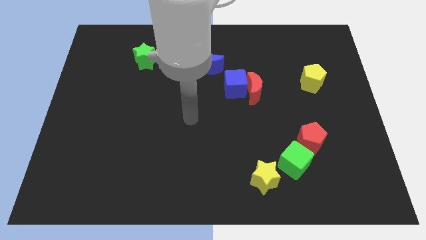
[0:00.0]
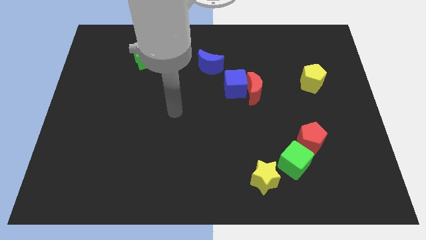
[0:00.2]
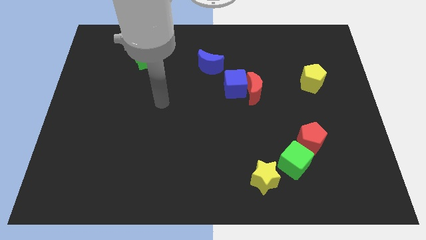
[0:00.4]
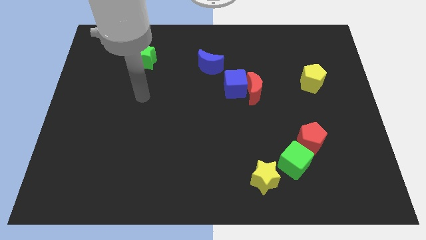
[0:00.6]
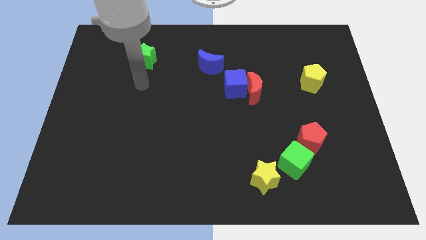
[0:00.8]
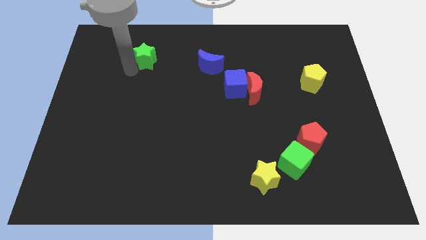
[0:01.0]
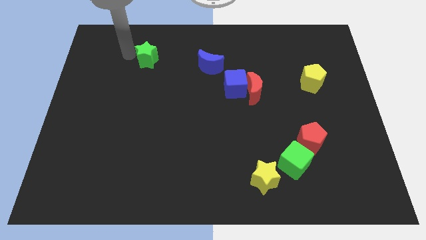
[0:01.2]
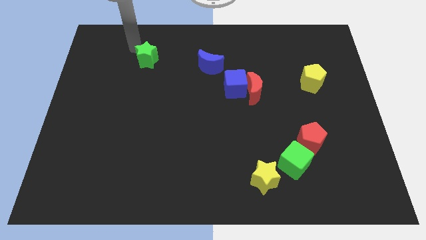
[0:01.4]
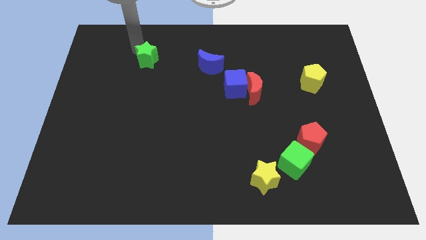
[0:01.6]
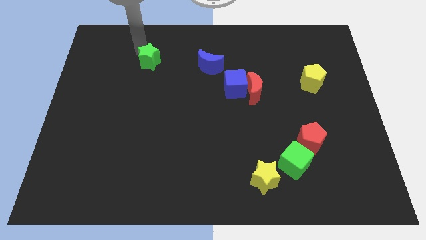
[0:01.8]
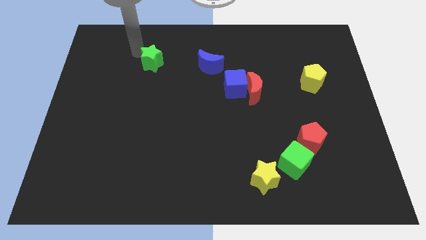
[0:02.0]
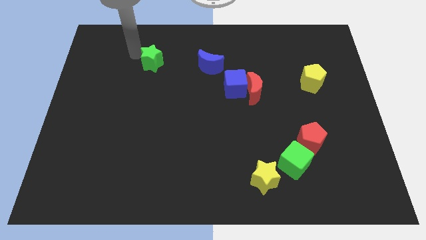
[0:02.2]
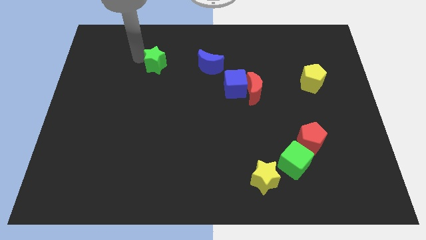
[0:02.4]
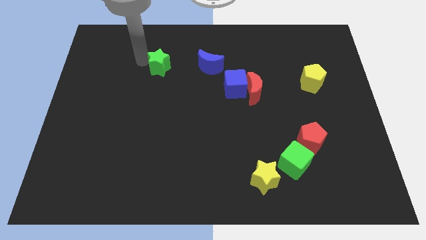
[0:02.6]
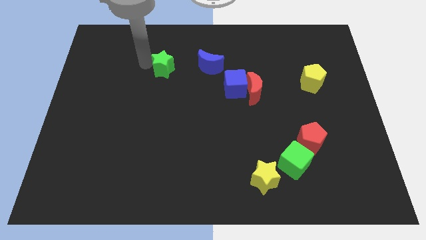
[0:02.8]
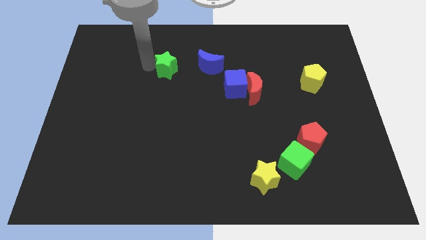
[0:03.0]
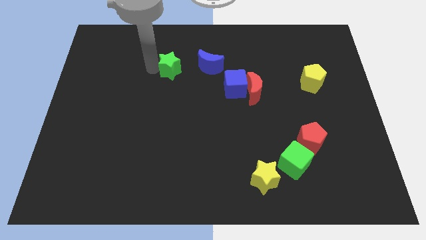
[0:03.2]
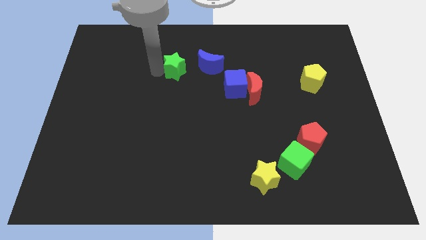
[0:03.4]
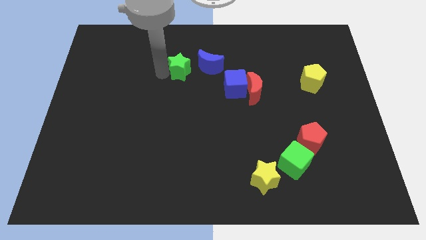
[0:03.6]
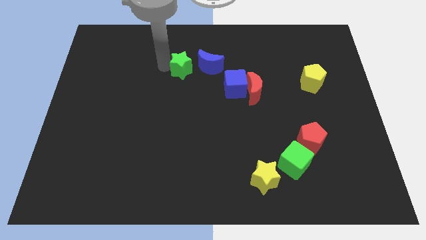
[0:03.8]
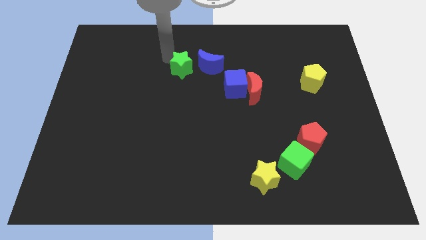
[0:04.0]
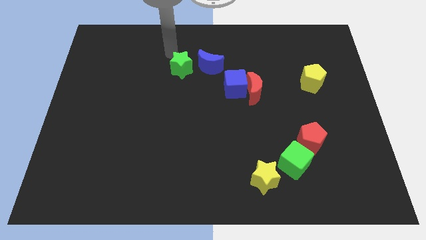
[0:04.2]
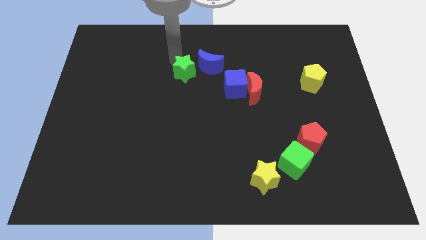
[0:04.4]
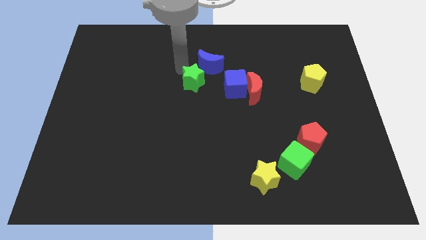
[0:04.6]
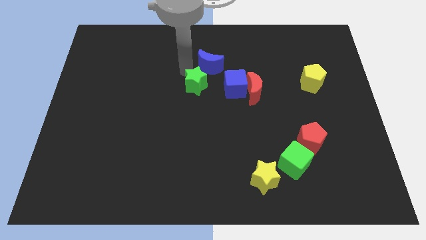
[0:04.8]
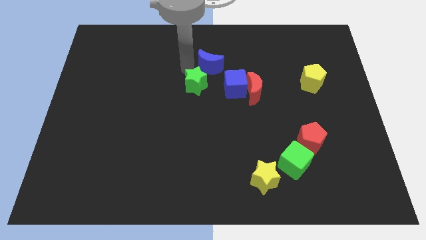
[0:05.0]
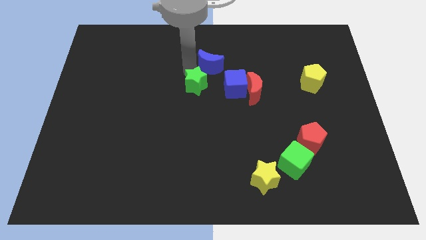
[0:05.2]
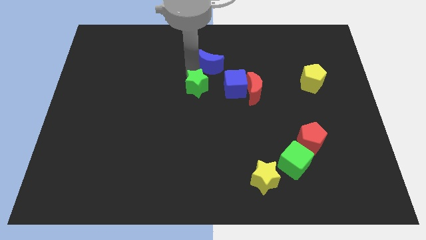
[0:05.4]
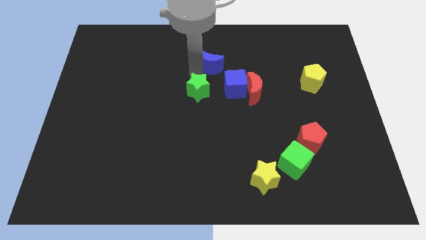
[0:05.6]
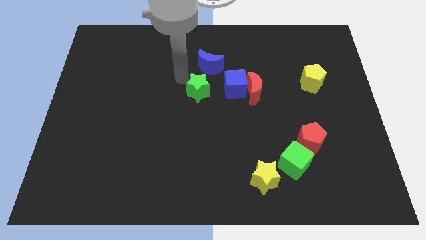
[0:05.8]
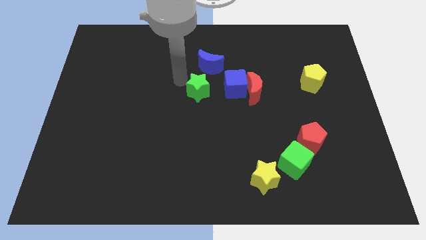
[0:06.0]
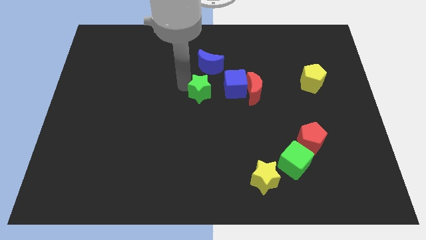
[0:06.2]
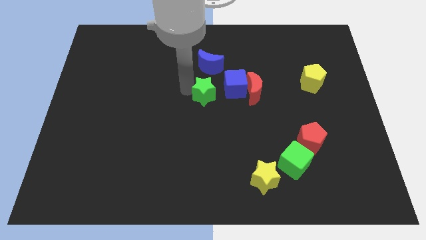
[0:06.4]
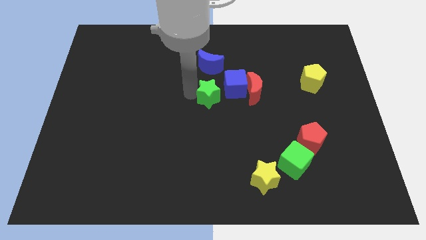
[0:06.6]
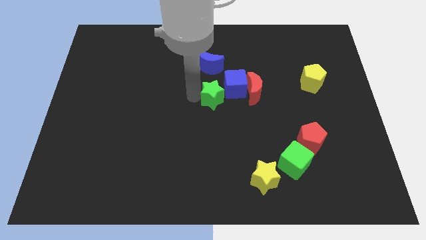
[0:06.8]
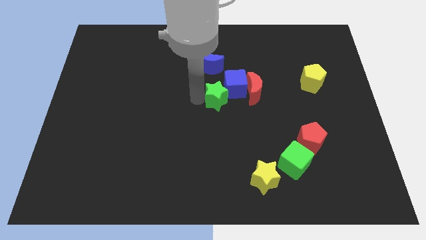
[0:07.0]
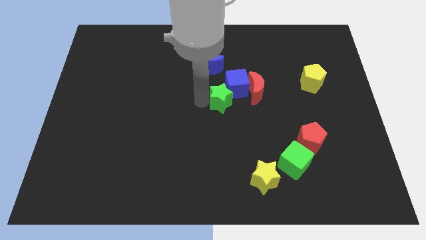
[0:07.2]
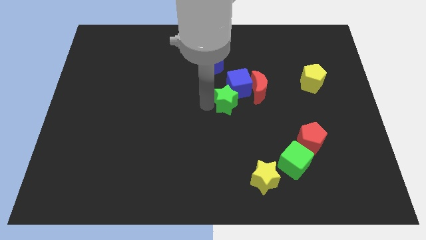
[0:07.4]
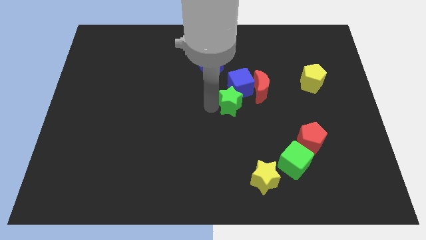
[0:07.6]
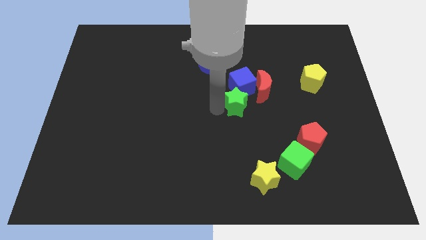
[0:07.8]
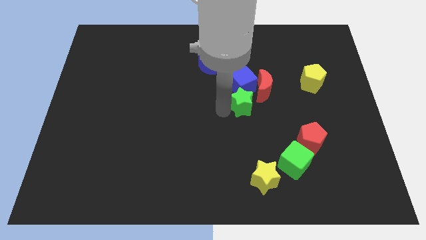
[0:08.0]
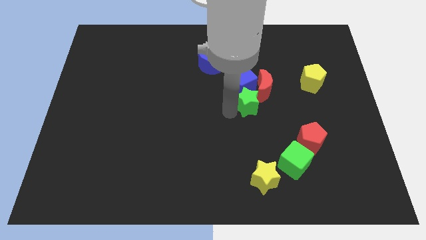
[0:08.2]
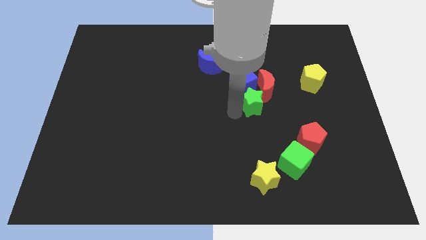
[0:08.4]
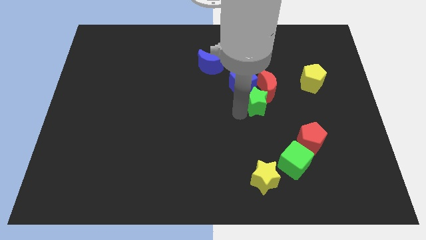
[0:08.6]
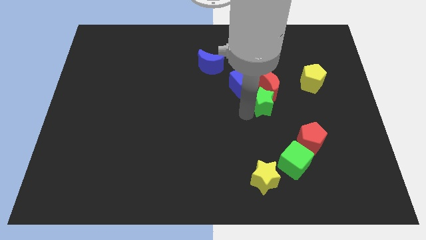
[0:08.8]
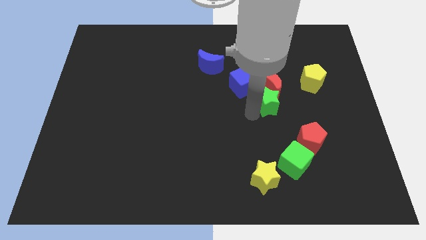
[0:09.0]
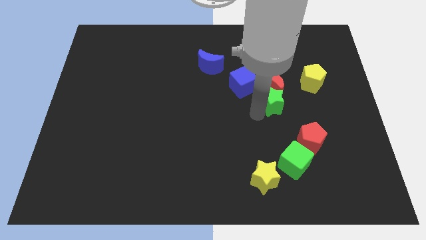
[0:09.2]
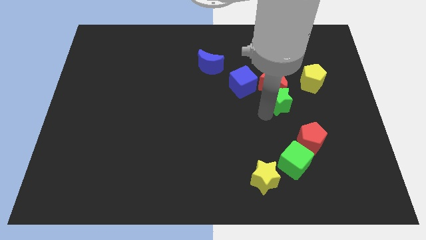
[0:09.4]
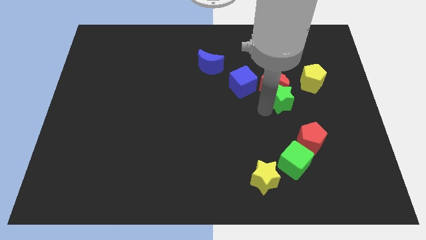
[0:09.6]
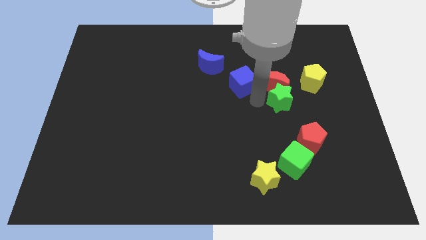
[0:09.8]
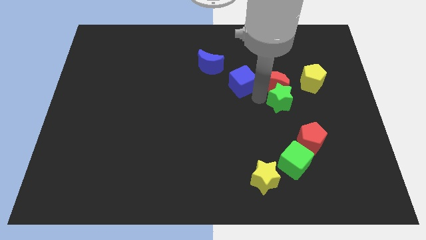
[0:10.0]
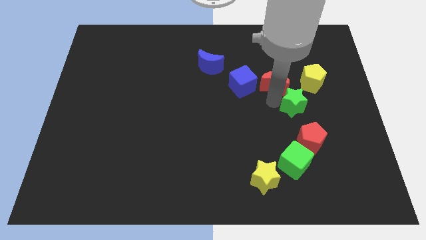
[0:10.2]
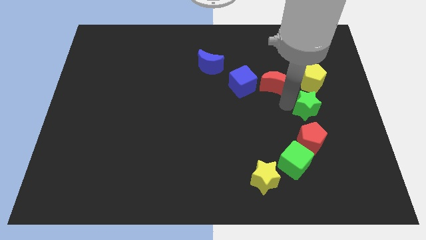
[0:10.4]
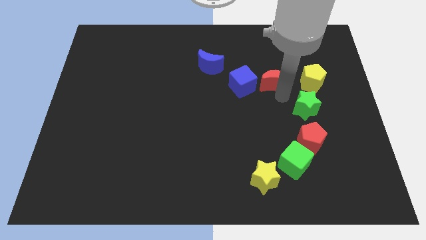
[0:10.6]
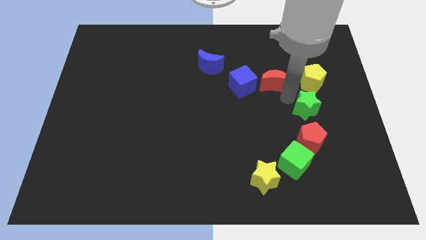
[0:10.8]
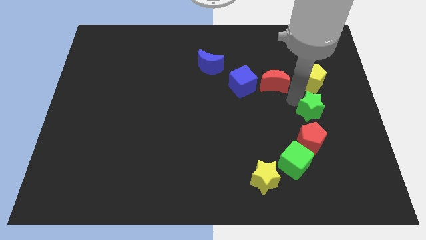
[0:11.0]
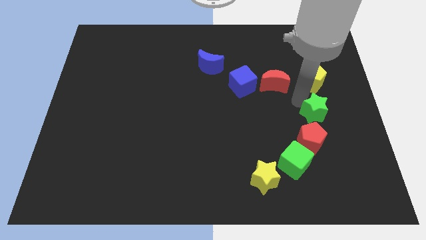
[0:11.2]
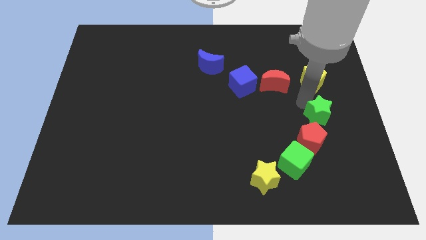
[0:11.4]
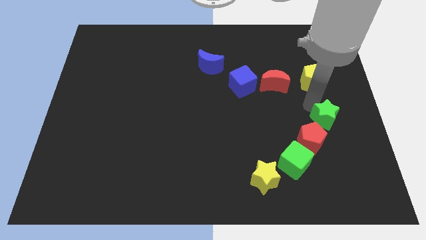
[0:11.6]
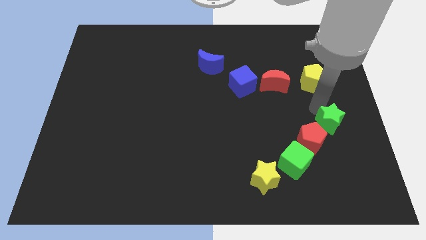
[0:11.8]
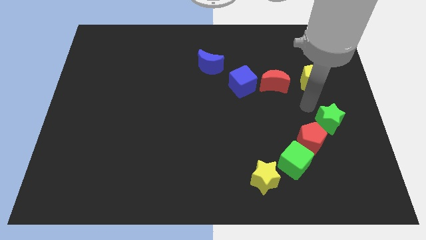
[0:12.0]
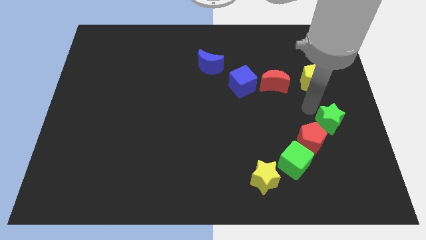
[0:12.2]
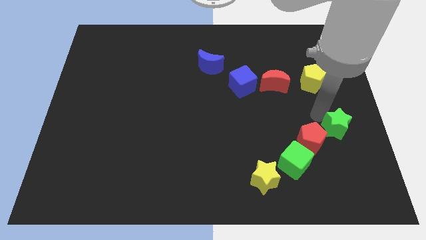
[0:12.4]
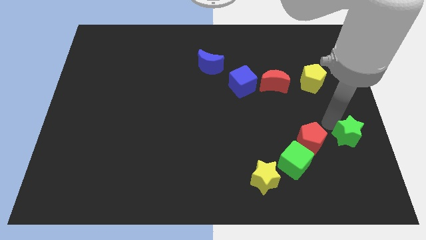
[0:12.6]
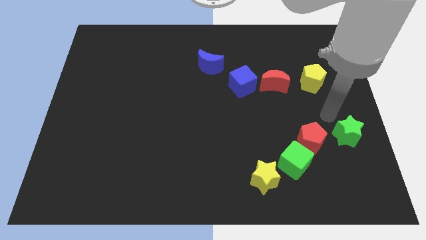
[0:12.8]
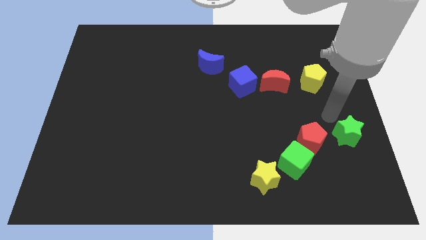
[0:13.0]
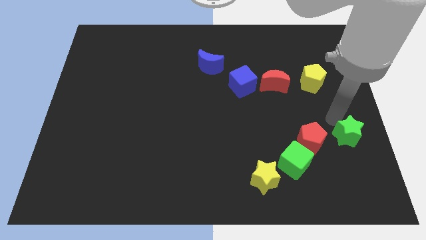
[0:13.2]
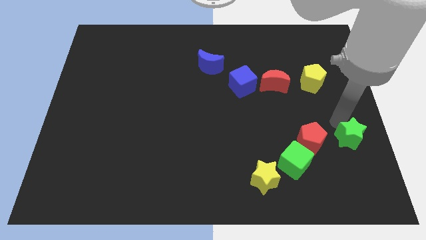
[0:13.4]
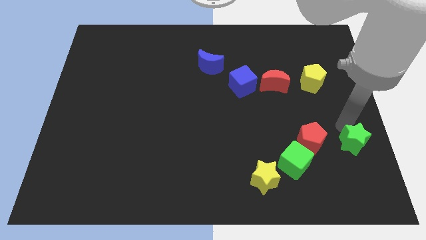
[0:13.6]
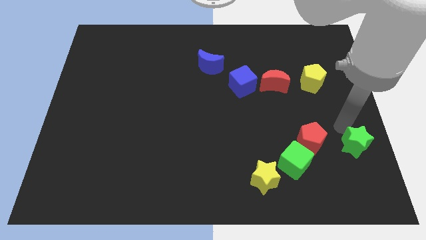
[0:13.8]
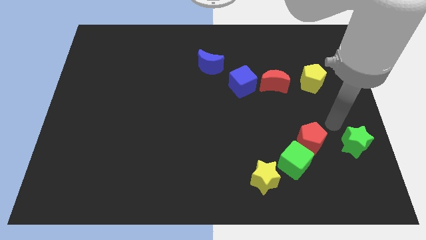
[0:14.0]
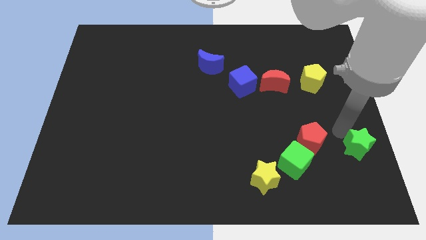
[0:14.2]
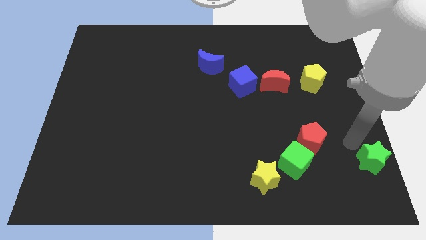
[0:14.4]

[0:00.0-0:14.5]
move the green star to the lower right corner
